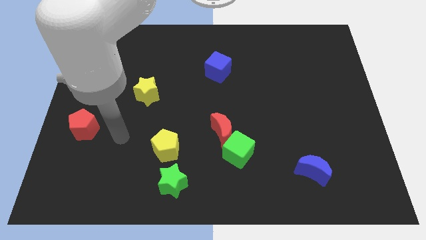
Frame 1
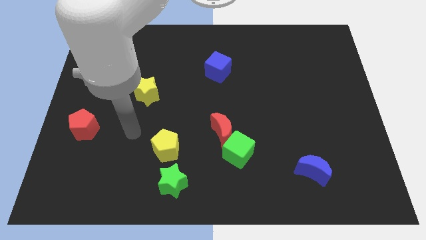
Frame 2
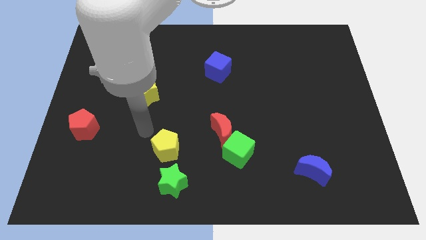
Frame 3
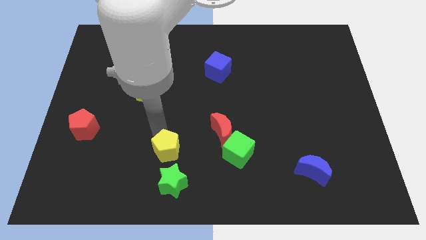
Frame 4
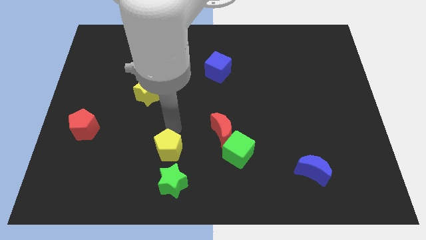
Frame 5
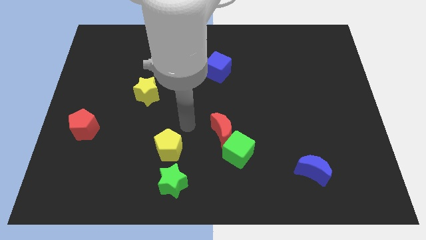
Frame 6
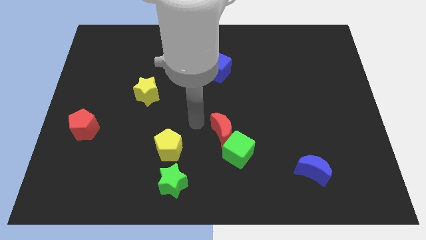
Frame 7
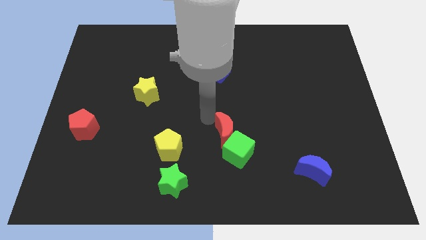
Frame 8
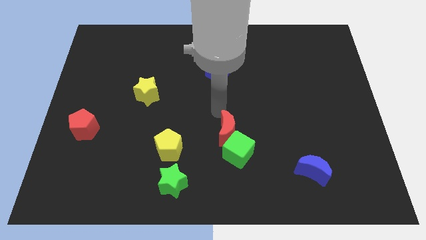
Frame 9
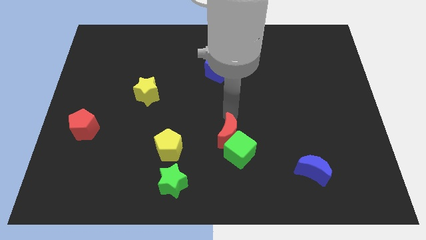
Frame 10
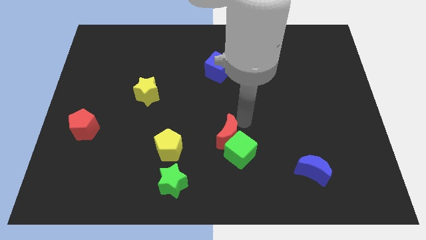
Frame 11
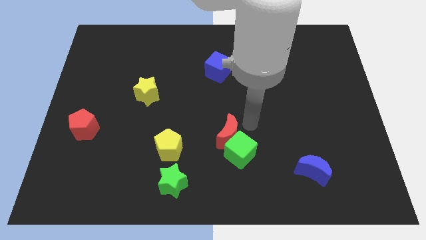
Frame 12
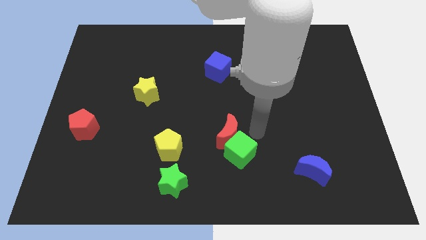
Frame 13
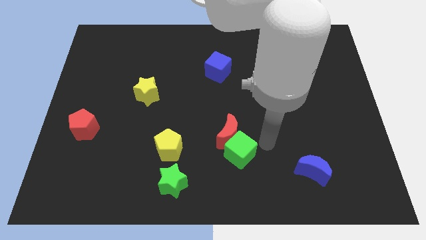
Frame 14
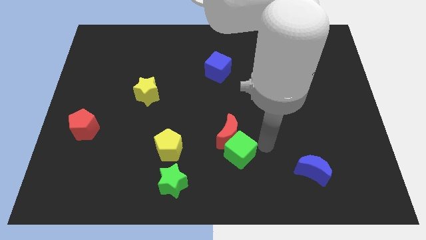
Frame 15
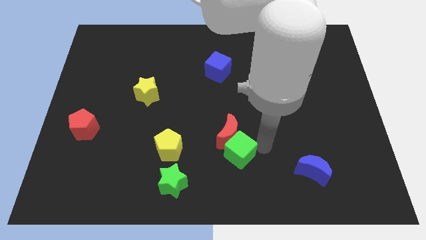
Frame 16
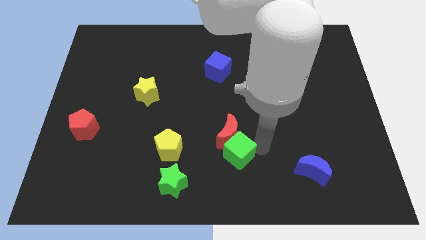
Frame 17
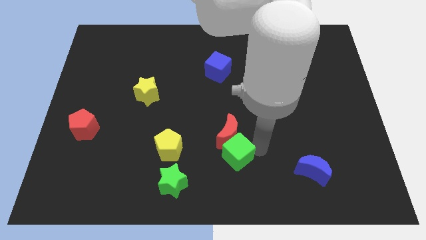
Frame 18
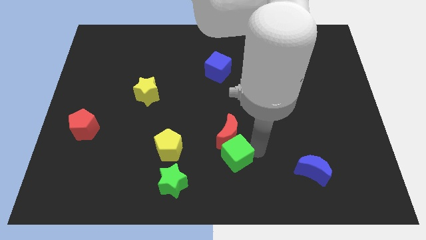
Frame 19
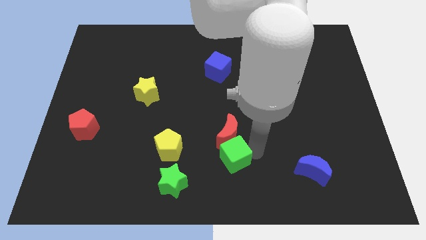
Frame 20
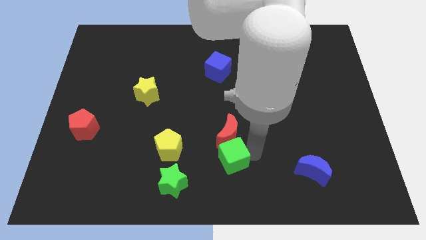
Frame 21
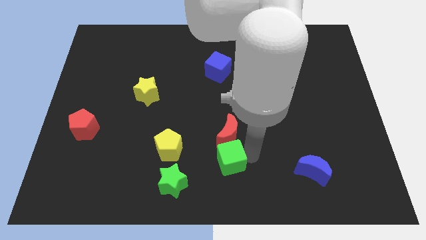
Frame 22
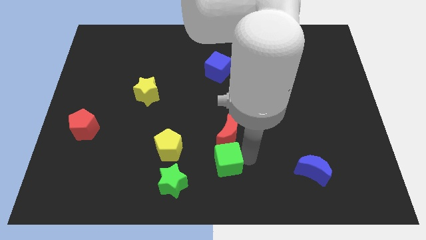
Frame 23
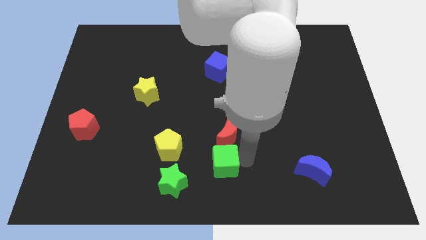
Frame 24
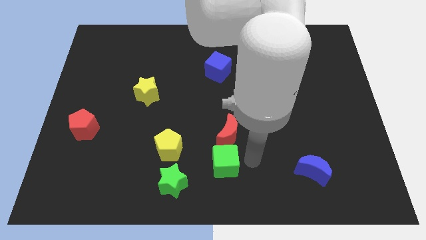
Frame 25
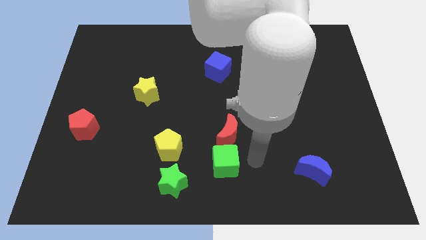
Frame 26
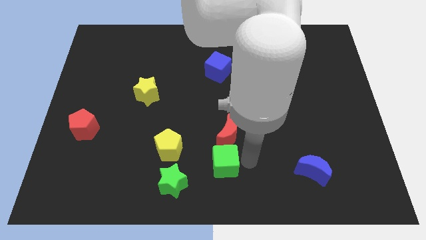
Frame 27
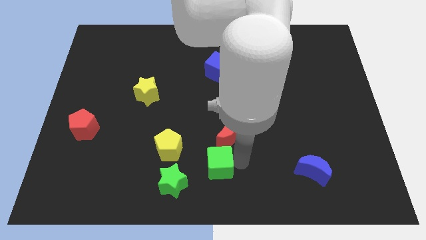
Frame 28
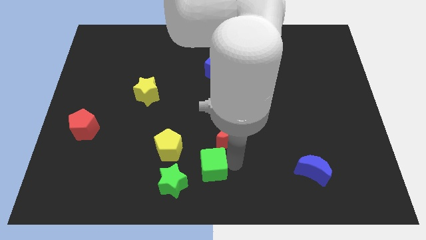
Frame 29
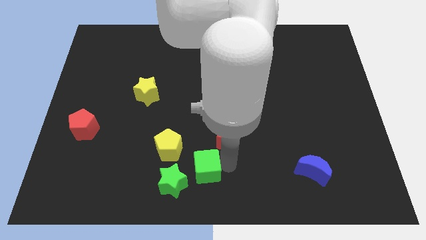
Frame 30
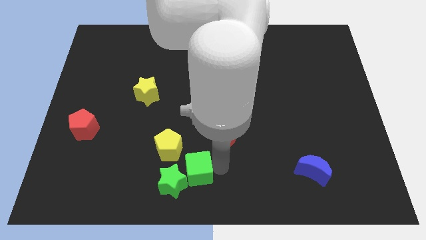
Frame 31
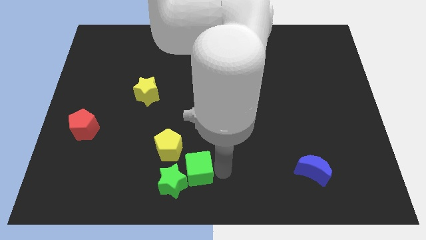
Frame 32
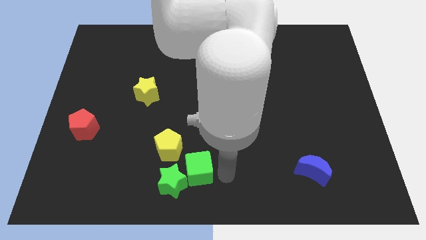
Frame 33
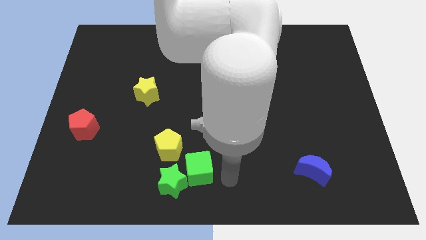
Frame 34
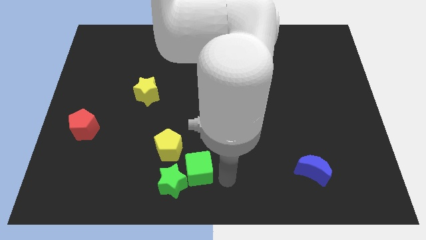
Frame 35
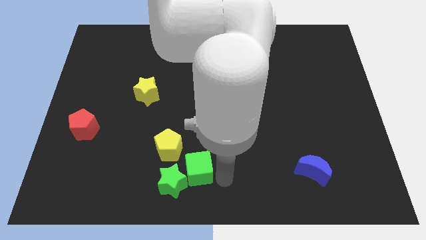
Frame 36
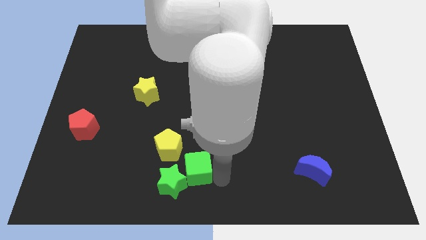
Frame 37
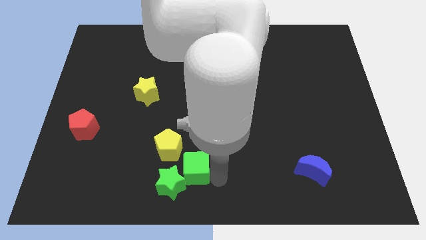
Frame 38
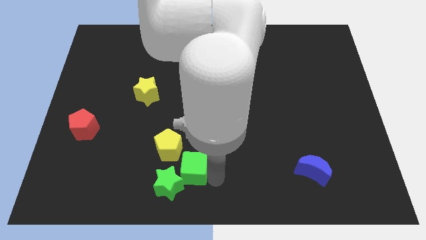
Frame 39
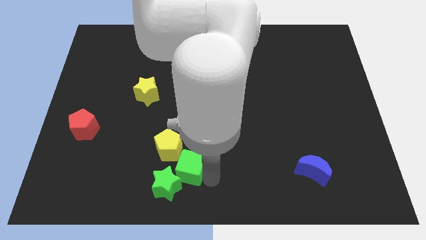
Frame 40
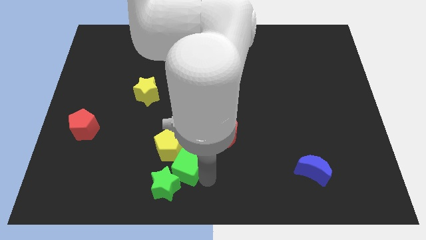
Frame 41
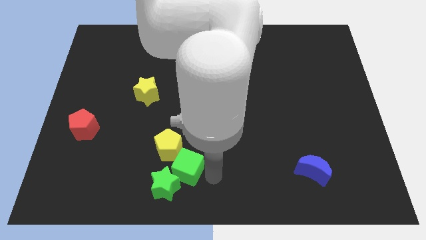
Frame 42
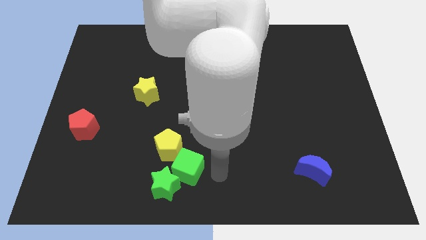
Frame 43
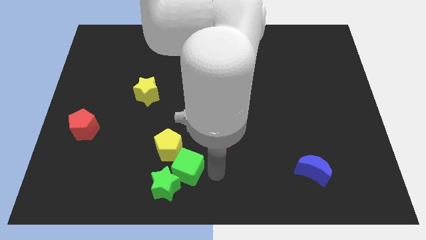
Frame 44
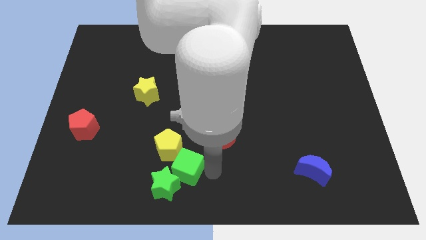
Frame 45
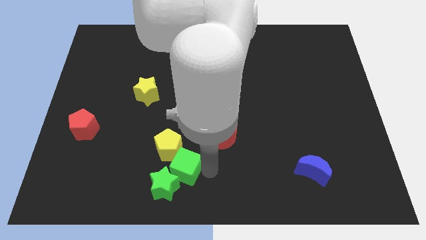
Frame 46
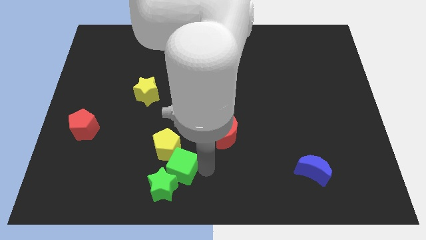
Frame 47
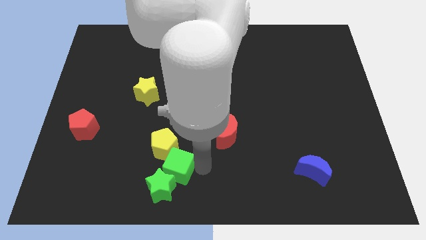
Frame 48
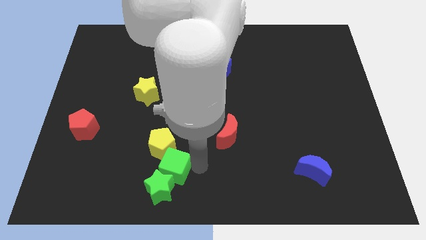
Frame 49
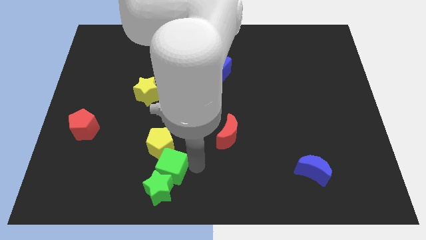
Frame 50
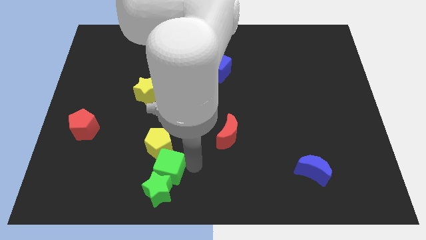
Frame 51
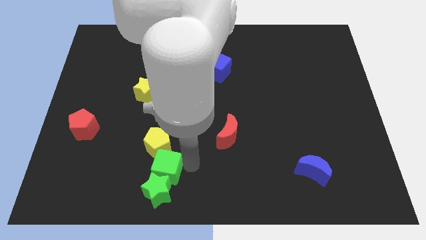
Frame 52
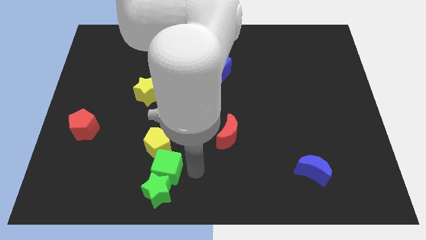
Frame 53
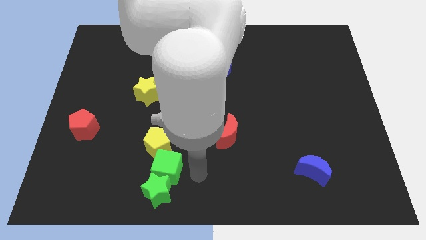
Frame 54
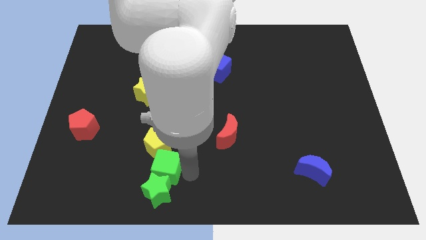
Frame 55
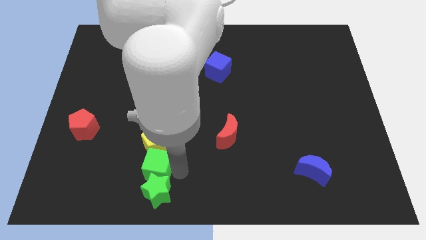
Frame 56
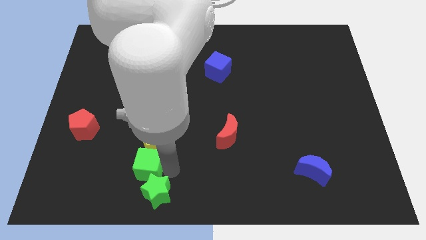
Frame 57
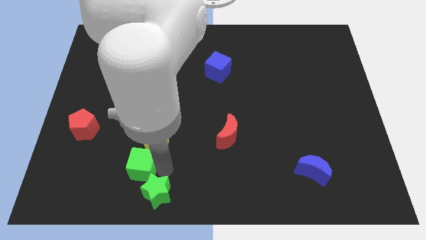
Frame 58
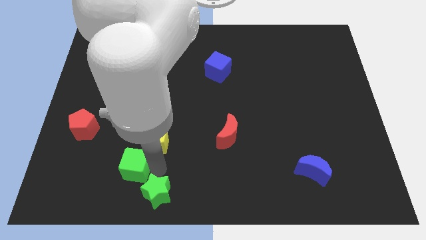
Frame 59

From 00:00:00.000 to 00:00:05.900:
slide the green cube left

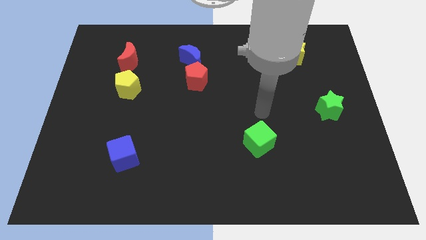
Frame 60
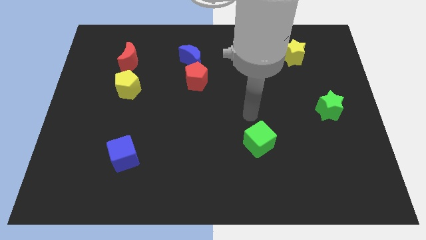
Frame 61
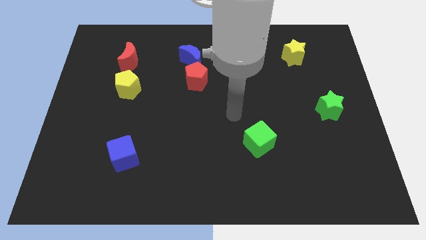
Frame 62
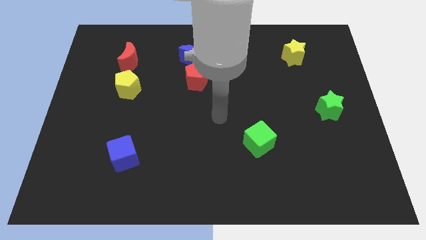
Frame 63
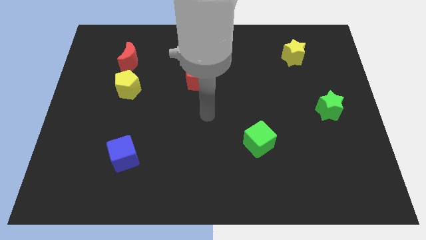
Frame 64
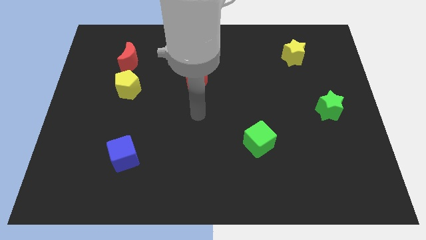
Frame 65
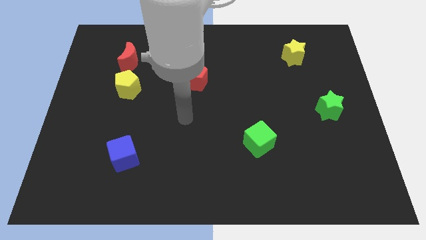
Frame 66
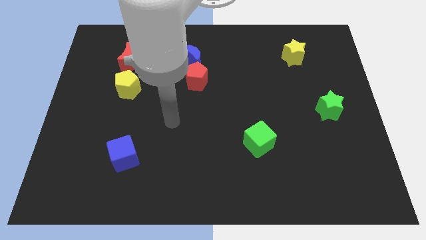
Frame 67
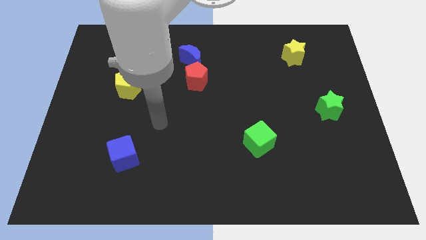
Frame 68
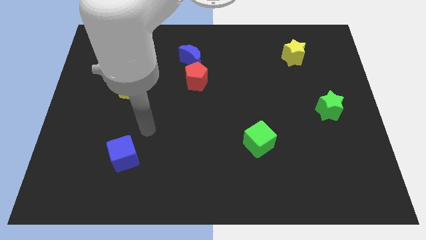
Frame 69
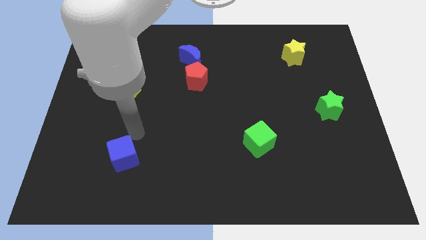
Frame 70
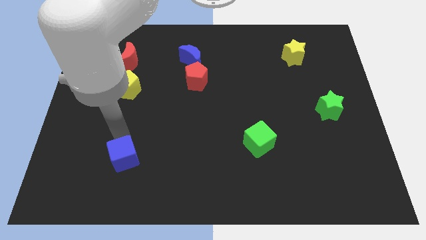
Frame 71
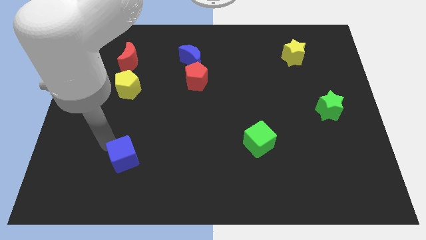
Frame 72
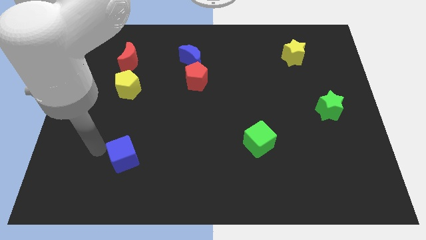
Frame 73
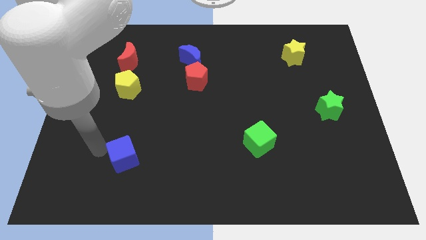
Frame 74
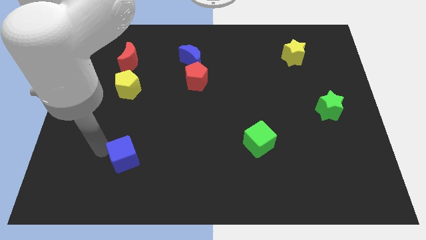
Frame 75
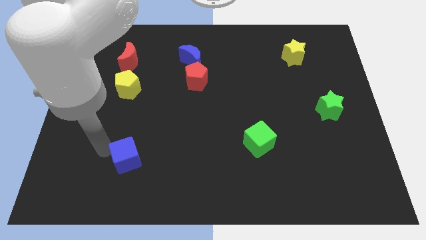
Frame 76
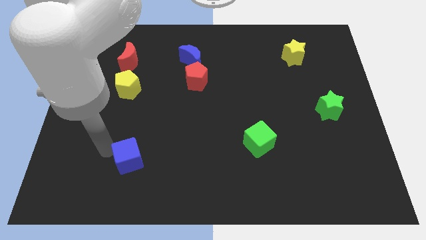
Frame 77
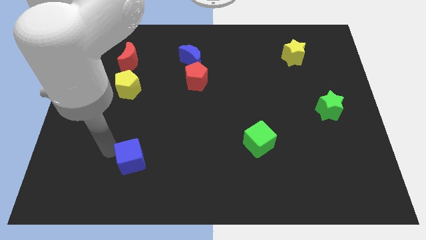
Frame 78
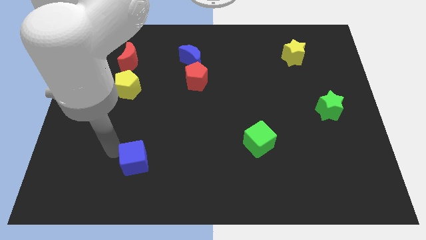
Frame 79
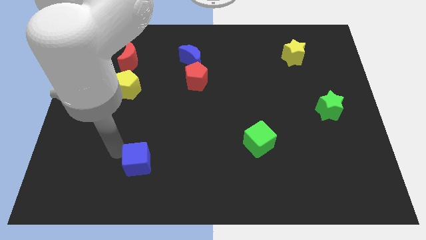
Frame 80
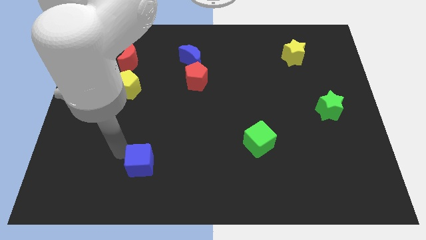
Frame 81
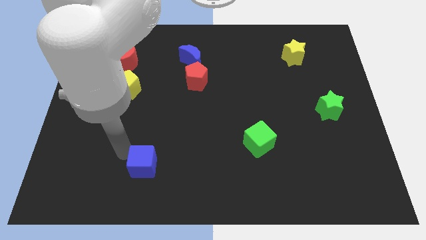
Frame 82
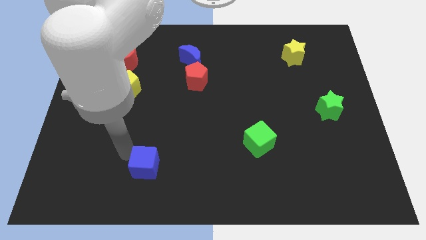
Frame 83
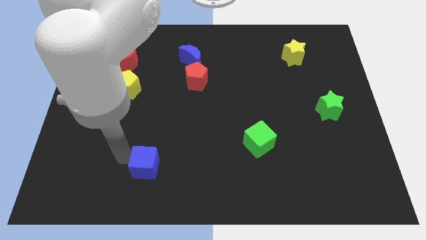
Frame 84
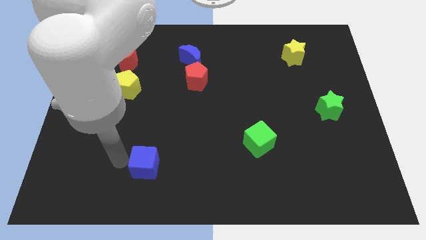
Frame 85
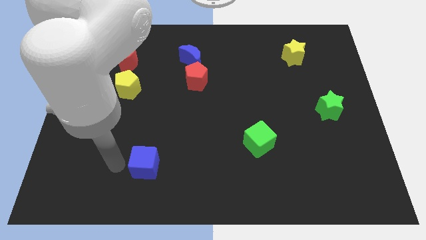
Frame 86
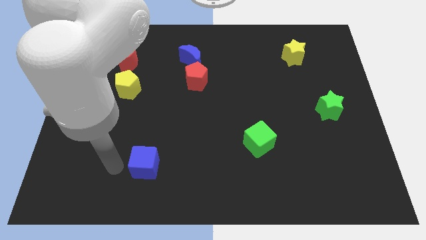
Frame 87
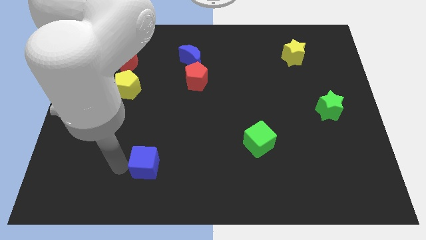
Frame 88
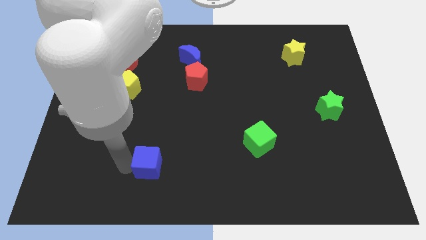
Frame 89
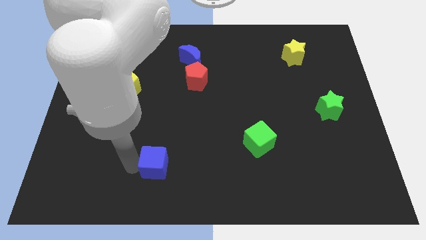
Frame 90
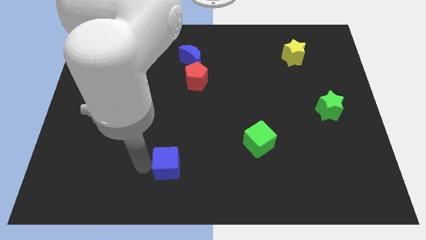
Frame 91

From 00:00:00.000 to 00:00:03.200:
move the blue cube a little to the right
